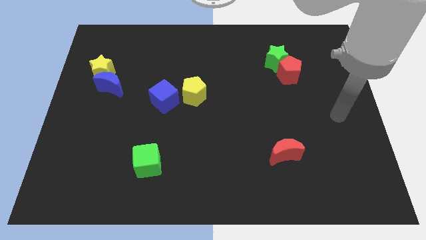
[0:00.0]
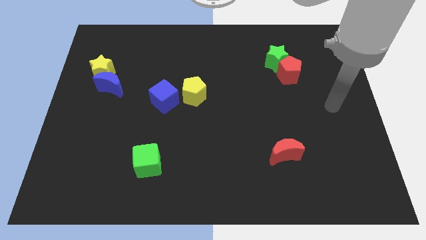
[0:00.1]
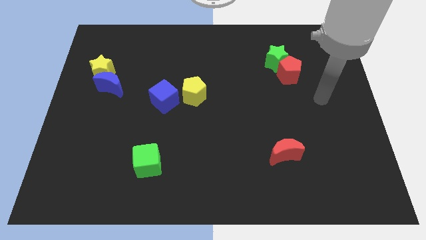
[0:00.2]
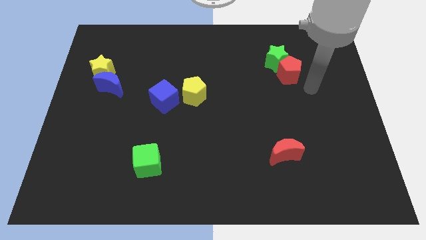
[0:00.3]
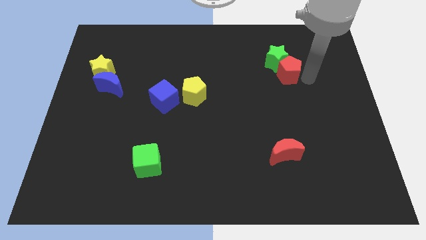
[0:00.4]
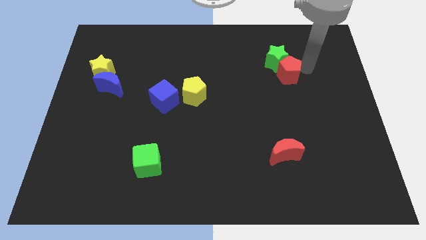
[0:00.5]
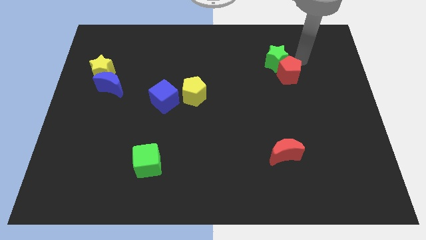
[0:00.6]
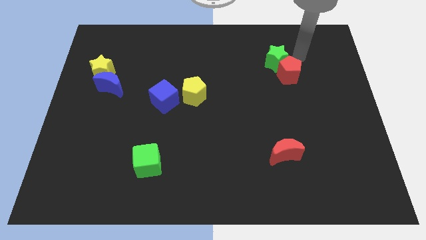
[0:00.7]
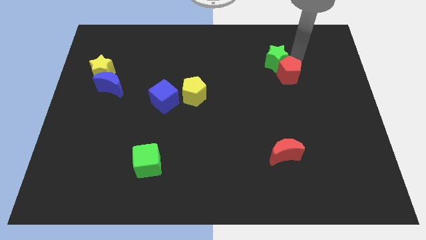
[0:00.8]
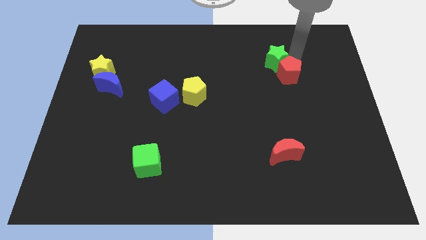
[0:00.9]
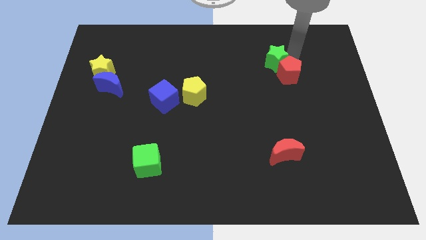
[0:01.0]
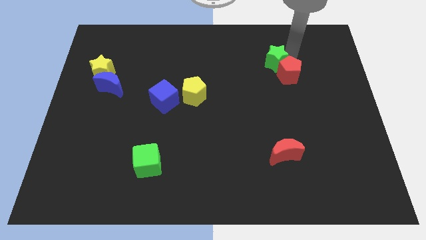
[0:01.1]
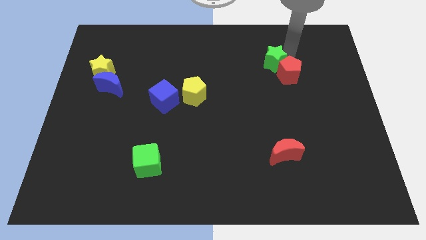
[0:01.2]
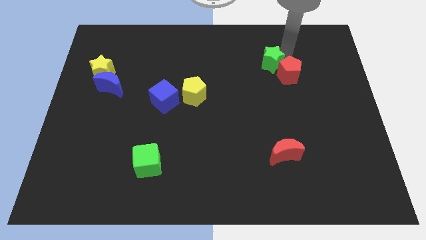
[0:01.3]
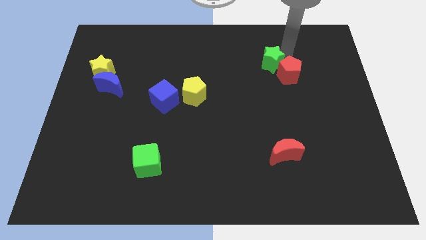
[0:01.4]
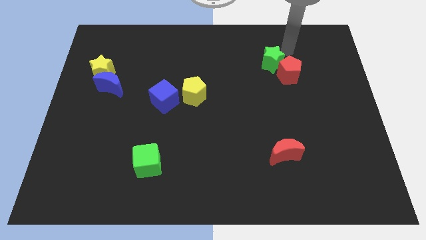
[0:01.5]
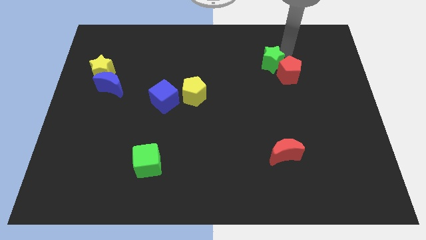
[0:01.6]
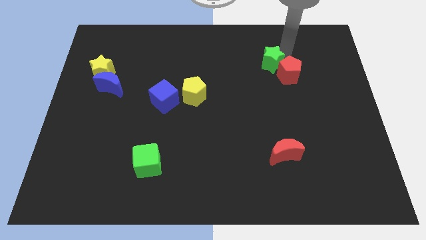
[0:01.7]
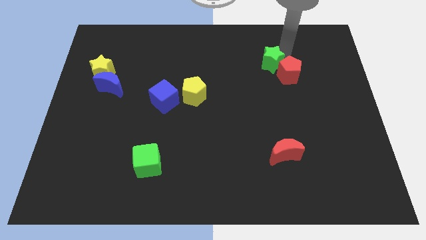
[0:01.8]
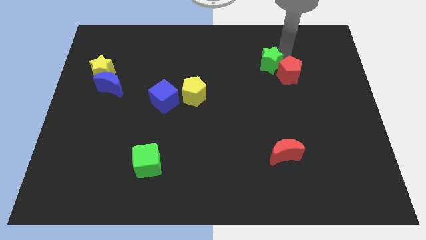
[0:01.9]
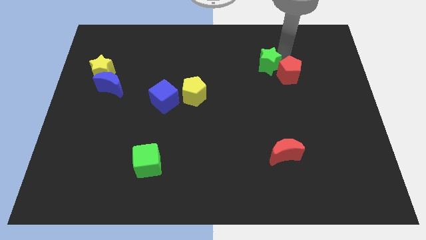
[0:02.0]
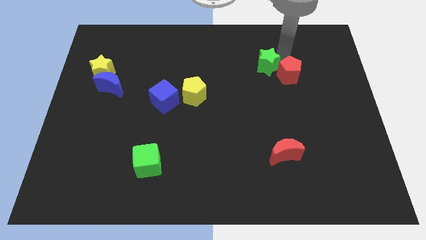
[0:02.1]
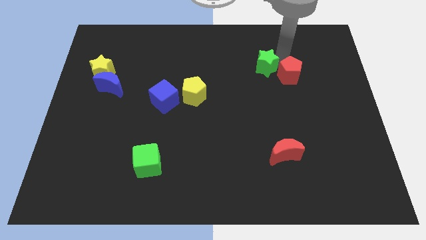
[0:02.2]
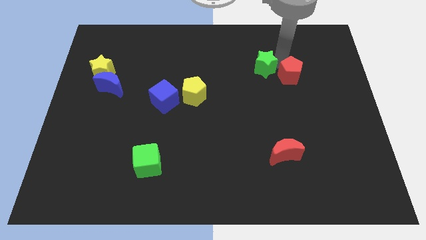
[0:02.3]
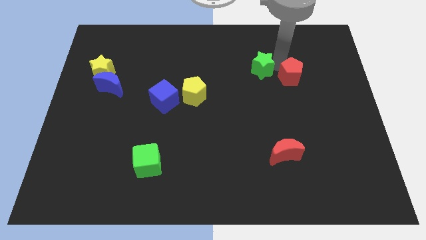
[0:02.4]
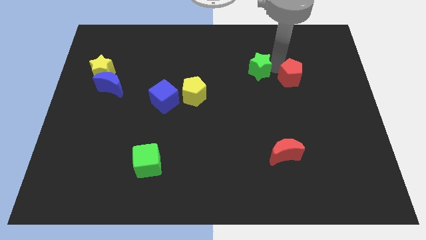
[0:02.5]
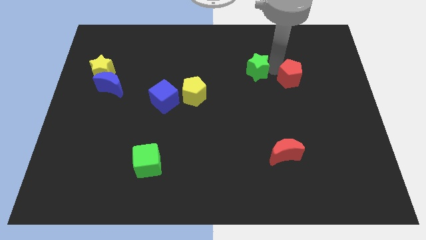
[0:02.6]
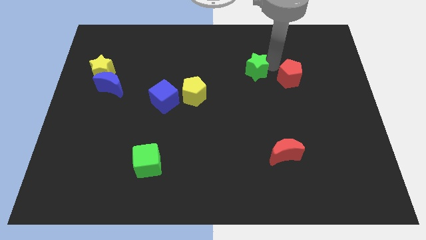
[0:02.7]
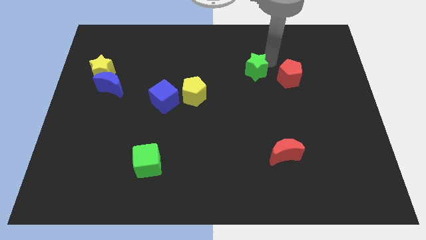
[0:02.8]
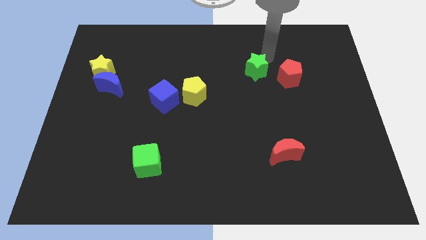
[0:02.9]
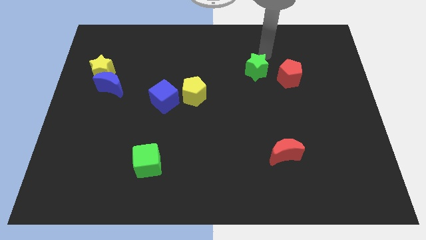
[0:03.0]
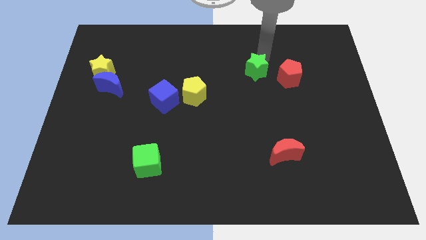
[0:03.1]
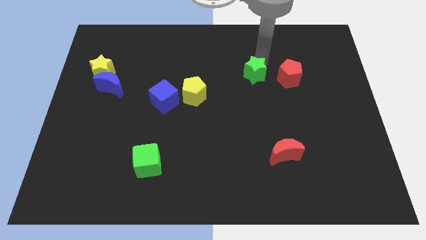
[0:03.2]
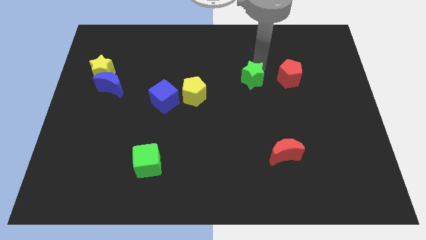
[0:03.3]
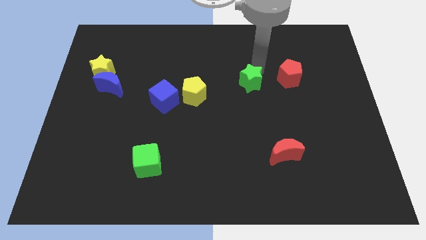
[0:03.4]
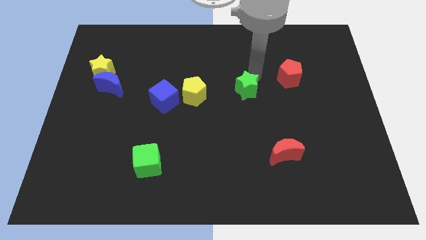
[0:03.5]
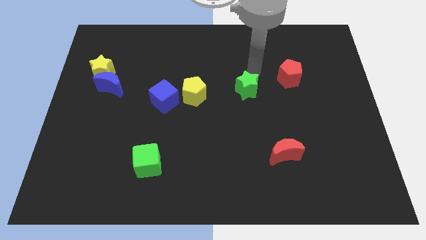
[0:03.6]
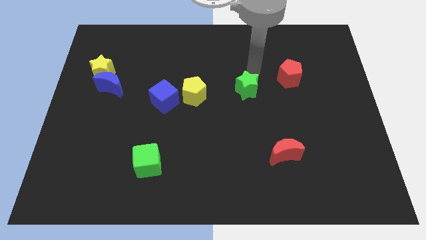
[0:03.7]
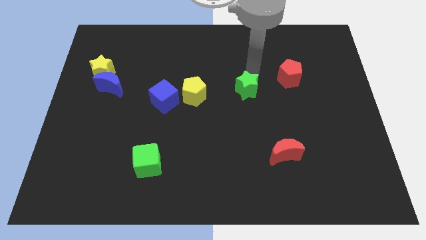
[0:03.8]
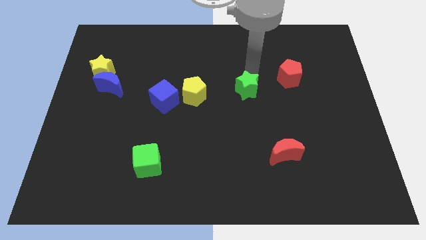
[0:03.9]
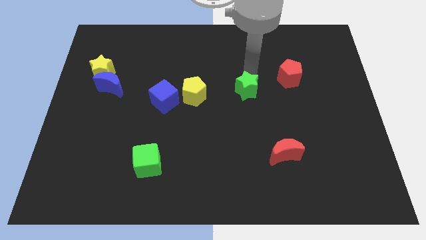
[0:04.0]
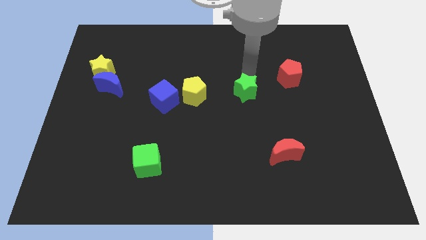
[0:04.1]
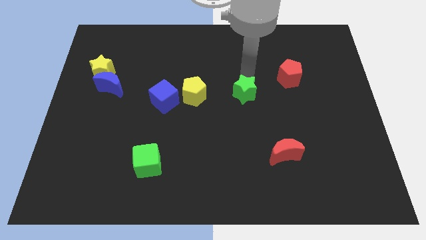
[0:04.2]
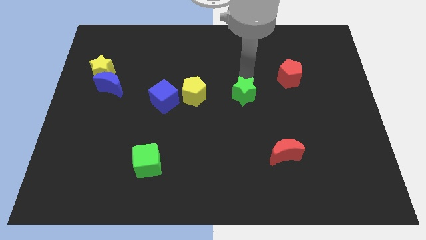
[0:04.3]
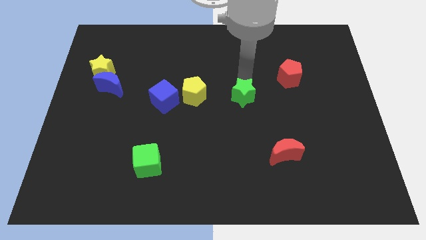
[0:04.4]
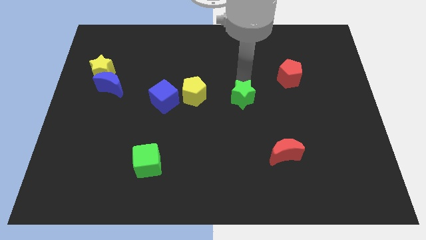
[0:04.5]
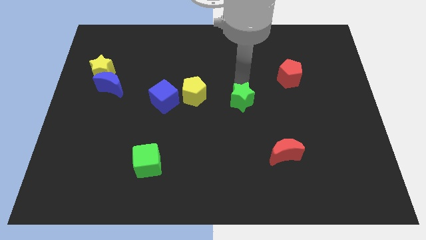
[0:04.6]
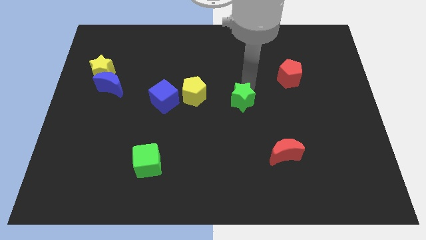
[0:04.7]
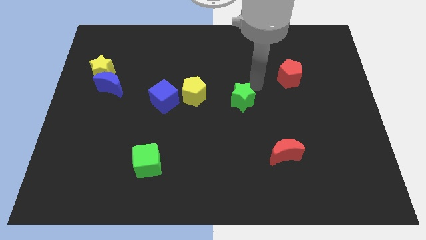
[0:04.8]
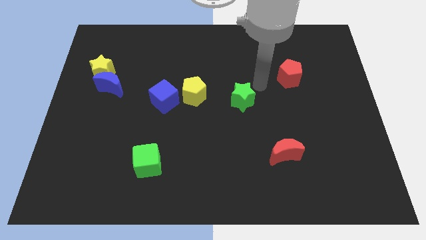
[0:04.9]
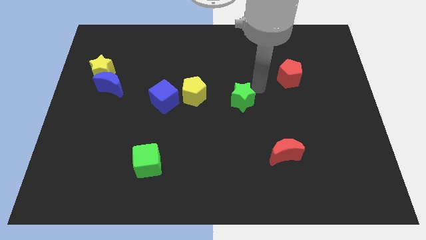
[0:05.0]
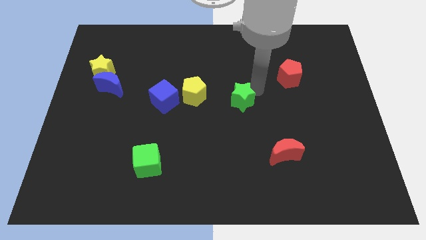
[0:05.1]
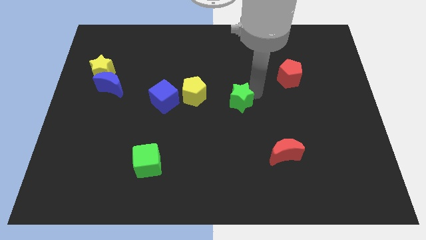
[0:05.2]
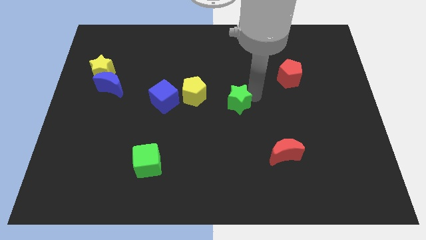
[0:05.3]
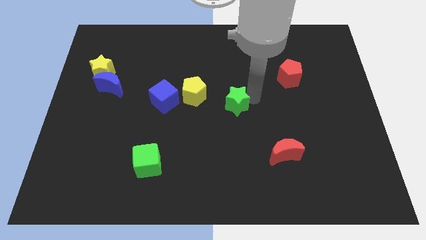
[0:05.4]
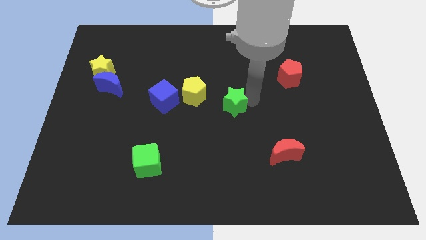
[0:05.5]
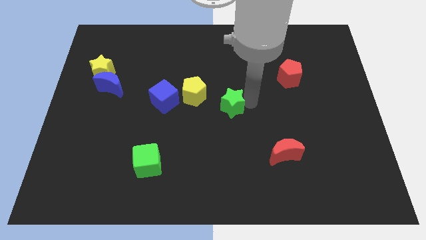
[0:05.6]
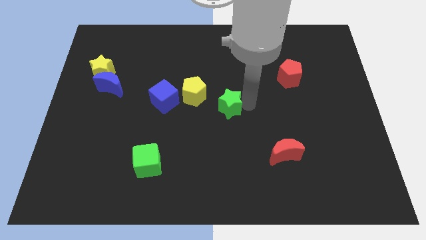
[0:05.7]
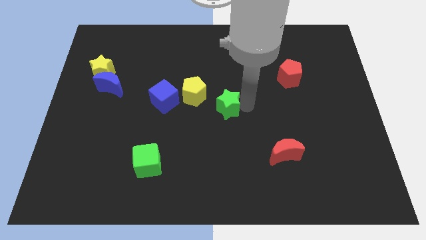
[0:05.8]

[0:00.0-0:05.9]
move the green star diagonally down and left

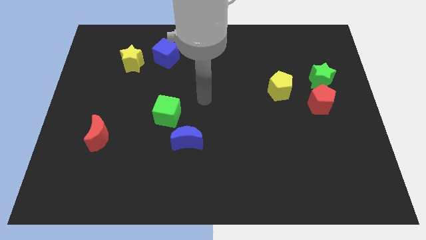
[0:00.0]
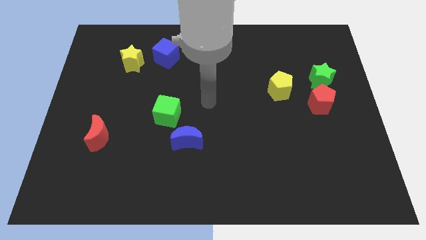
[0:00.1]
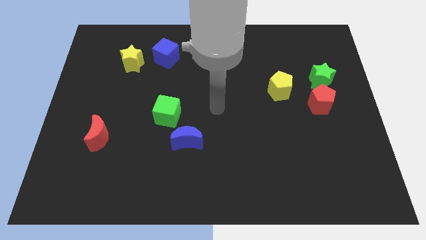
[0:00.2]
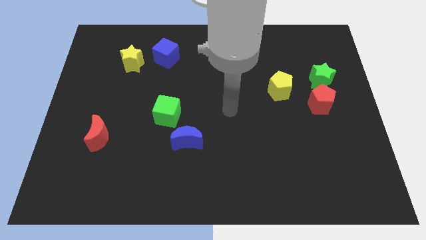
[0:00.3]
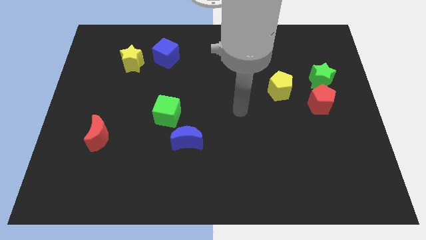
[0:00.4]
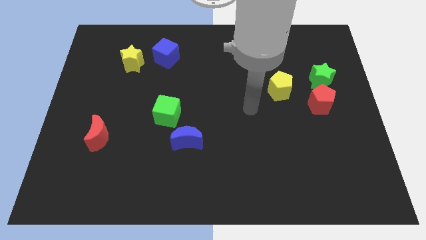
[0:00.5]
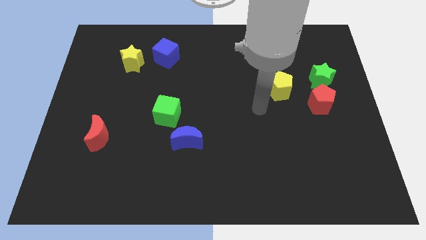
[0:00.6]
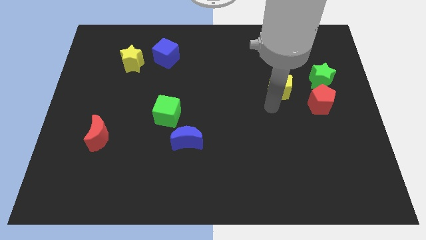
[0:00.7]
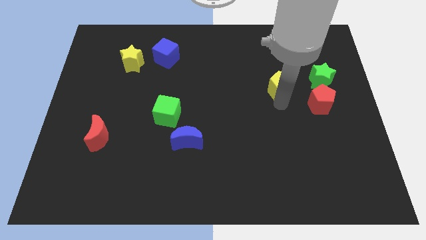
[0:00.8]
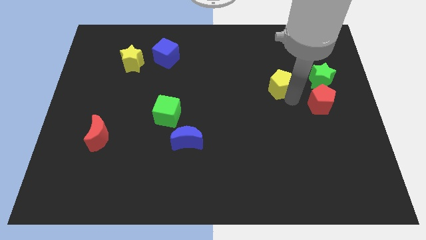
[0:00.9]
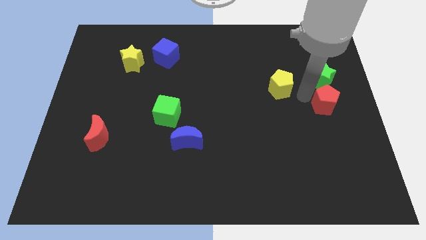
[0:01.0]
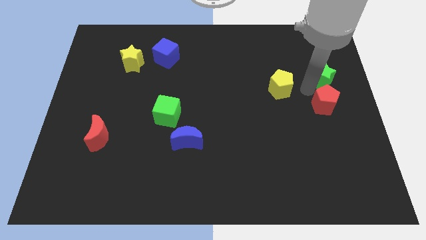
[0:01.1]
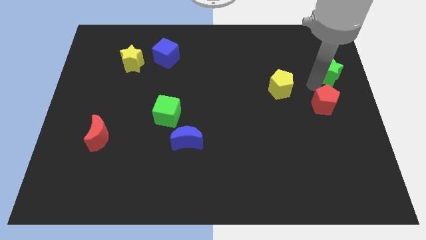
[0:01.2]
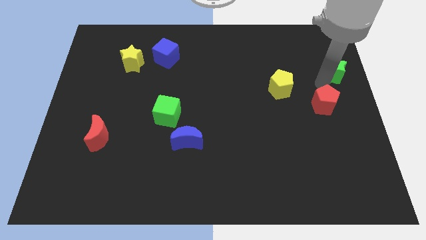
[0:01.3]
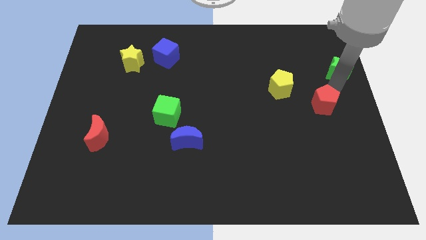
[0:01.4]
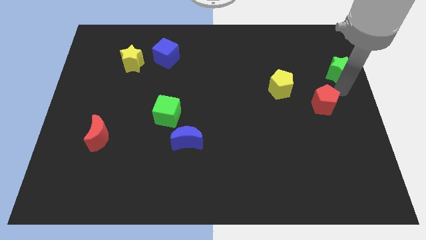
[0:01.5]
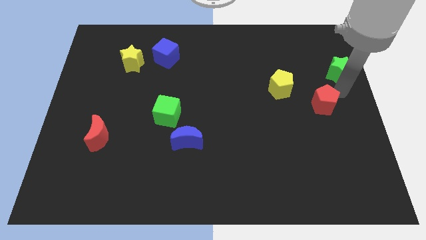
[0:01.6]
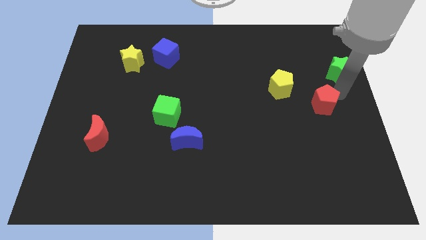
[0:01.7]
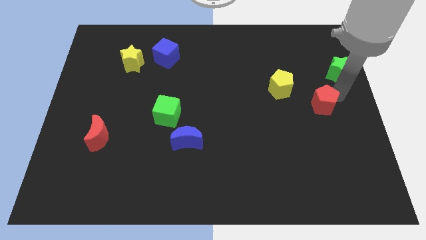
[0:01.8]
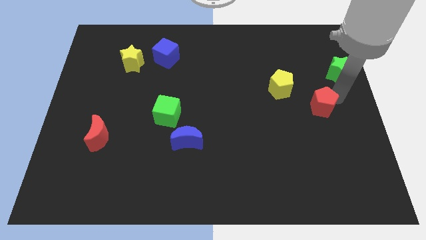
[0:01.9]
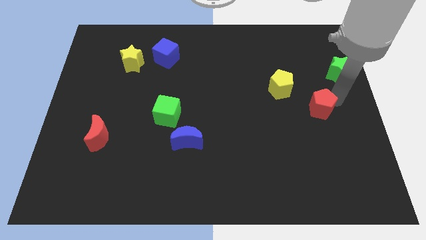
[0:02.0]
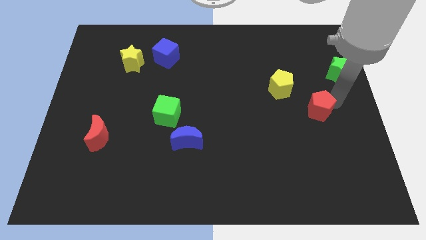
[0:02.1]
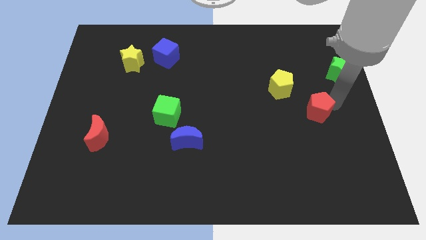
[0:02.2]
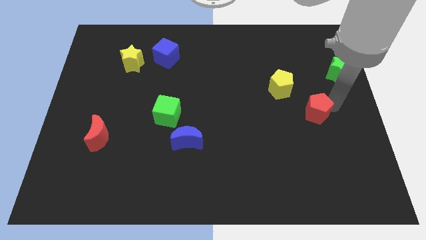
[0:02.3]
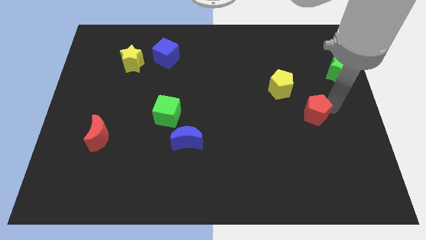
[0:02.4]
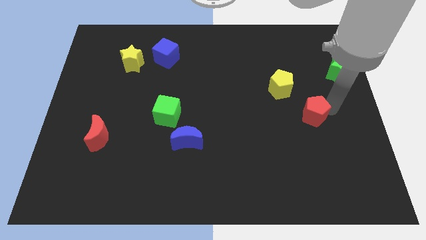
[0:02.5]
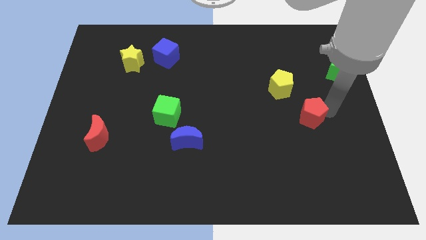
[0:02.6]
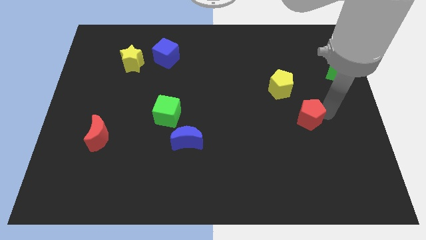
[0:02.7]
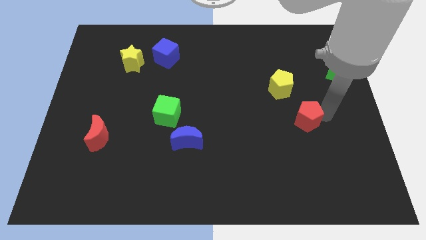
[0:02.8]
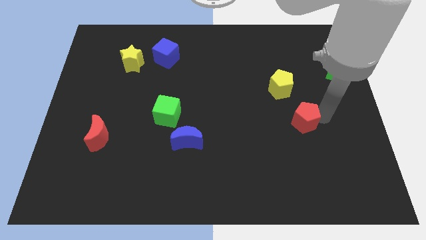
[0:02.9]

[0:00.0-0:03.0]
slightly slide the red pentagon diagonally downwards and left
